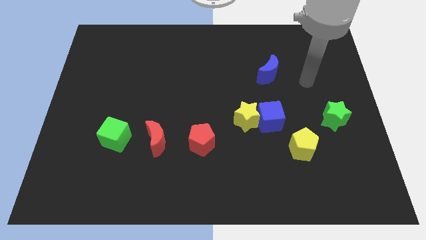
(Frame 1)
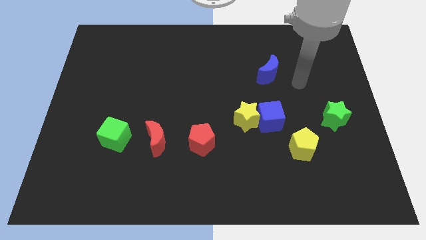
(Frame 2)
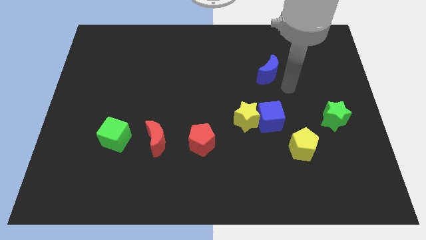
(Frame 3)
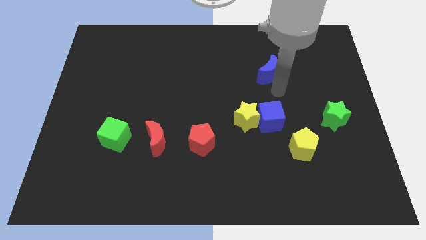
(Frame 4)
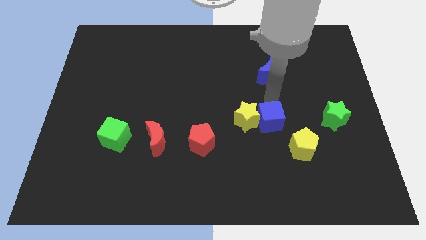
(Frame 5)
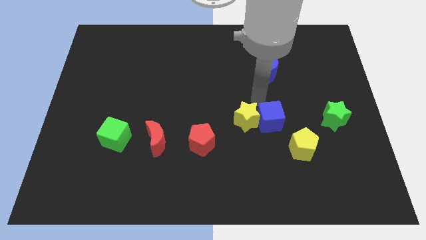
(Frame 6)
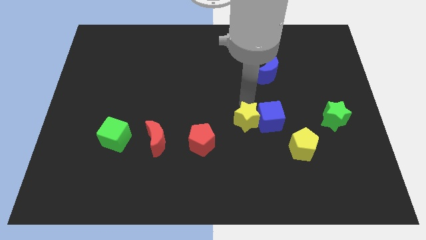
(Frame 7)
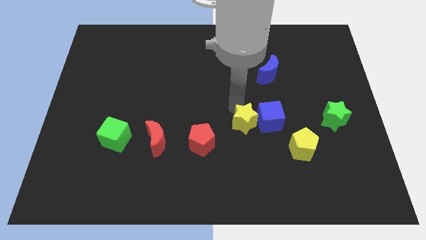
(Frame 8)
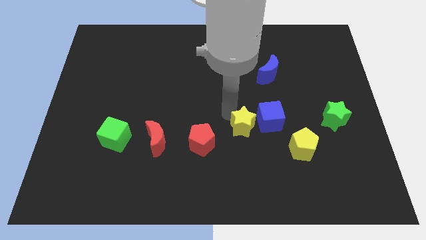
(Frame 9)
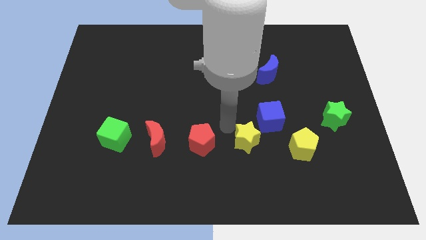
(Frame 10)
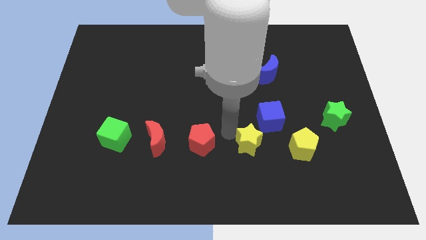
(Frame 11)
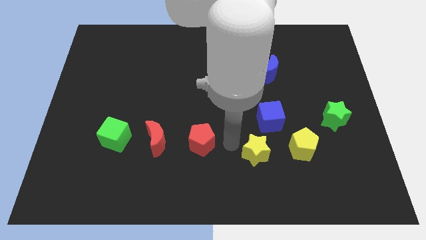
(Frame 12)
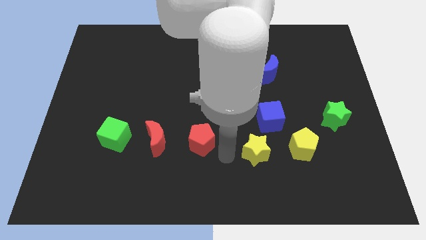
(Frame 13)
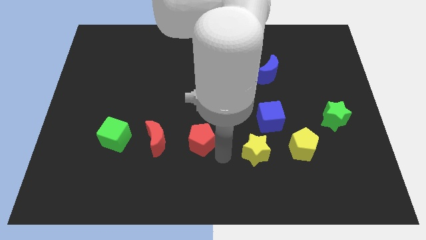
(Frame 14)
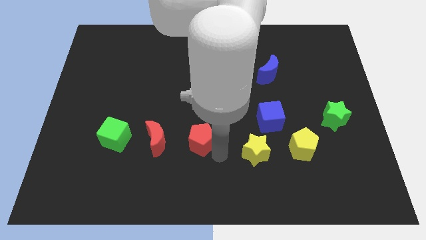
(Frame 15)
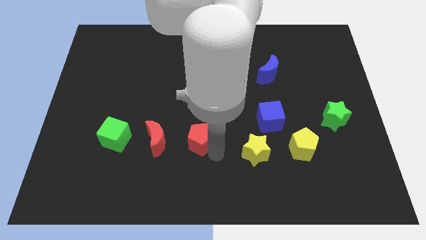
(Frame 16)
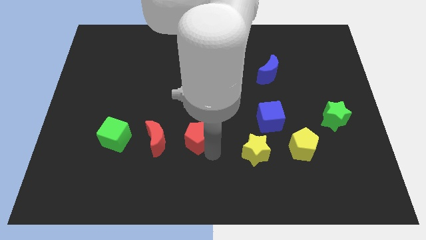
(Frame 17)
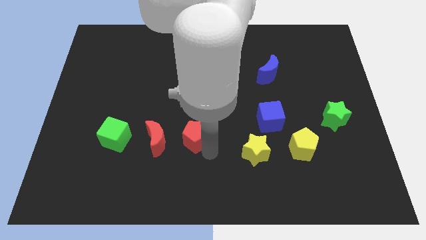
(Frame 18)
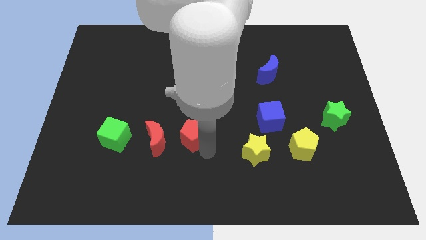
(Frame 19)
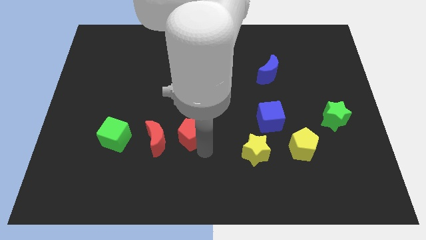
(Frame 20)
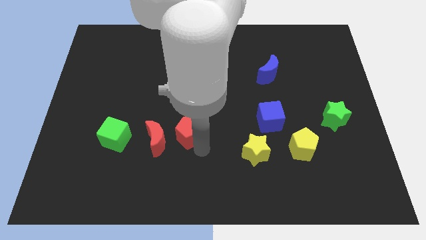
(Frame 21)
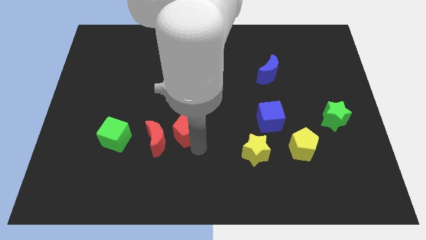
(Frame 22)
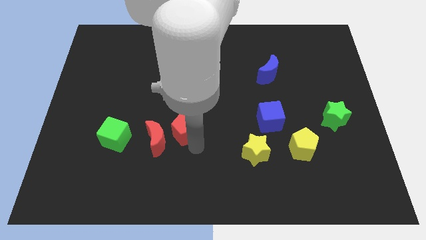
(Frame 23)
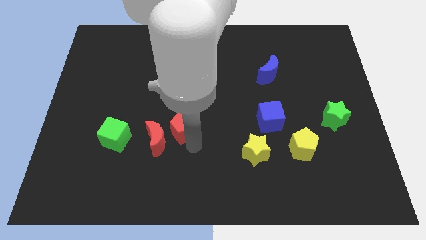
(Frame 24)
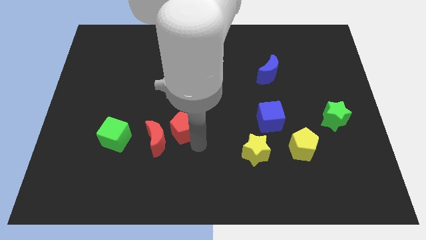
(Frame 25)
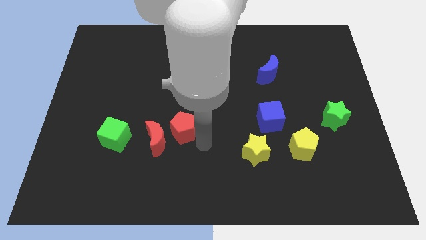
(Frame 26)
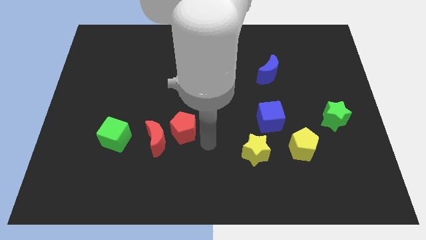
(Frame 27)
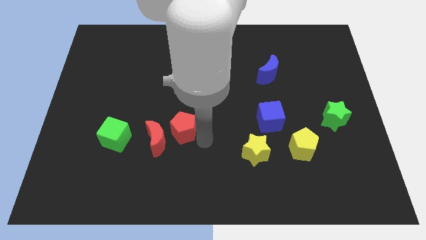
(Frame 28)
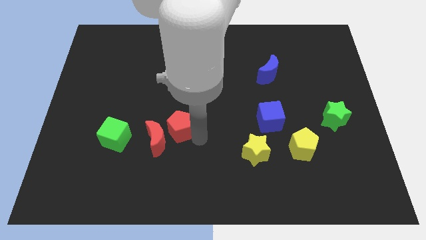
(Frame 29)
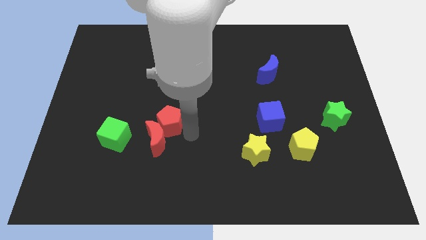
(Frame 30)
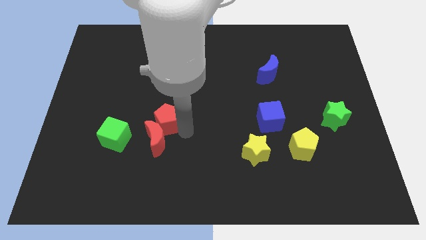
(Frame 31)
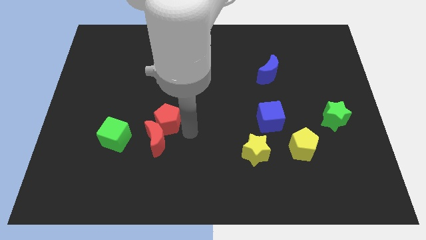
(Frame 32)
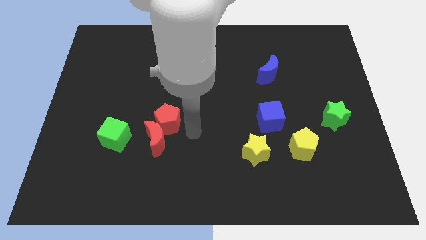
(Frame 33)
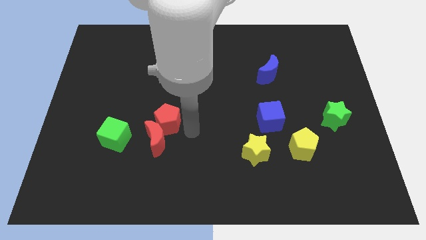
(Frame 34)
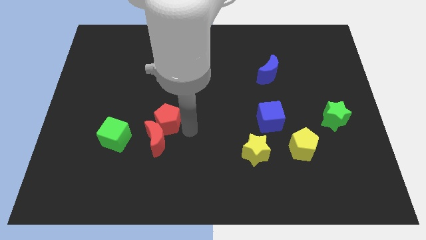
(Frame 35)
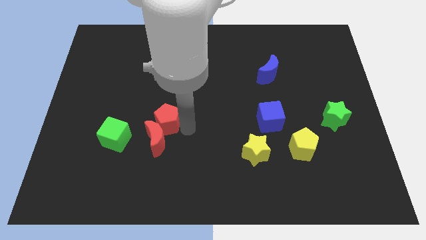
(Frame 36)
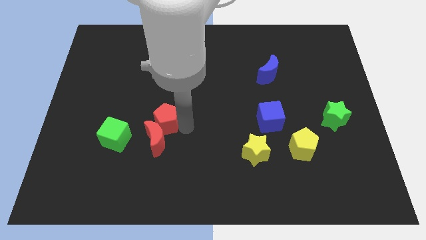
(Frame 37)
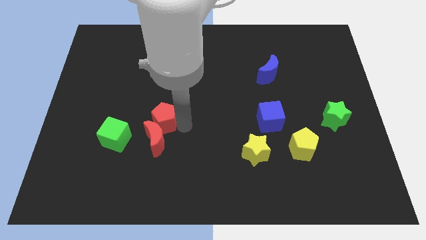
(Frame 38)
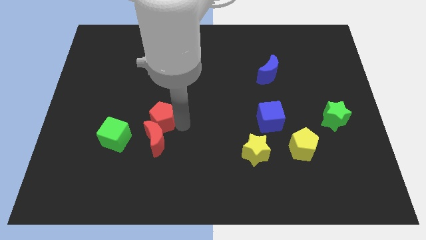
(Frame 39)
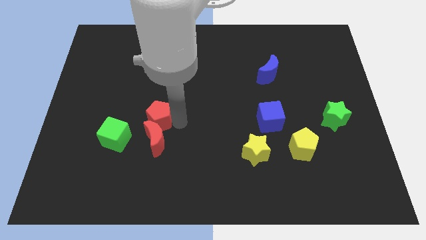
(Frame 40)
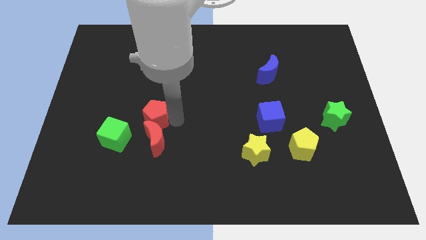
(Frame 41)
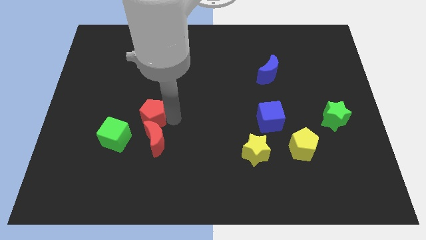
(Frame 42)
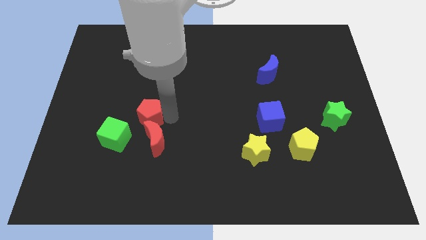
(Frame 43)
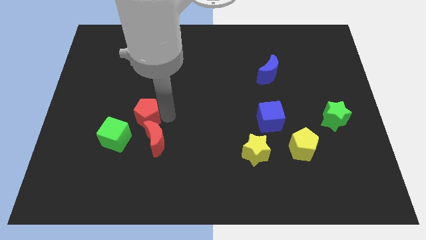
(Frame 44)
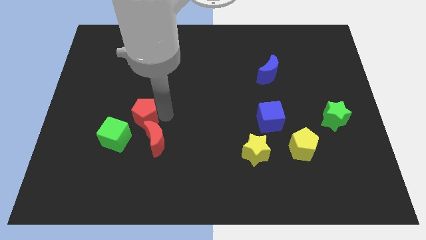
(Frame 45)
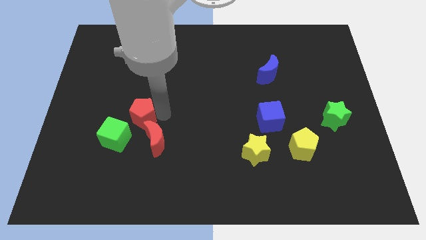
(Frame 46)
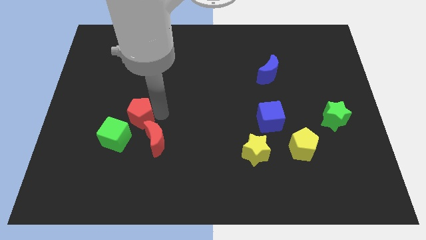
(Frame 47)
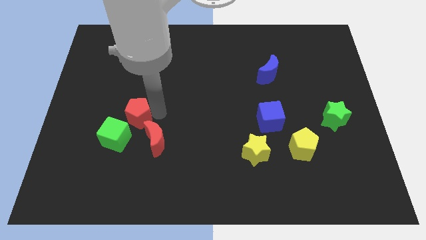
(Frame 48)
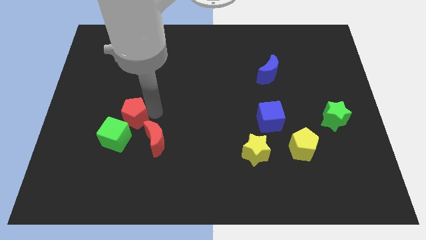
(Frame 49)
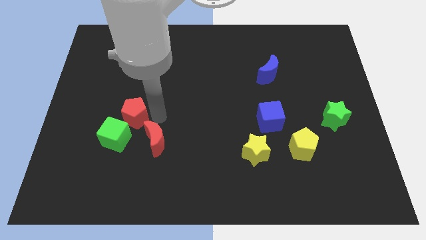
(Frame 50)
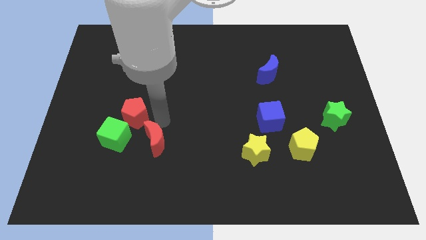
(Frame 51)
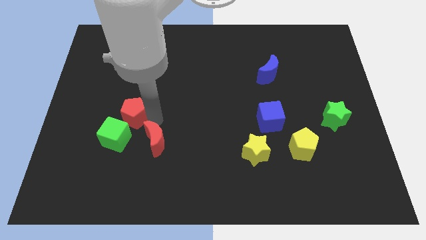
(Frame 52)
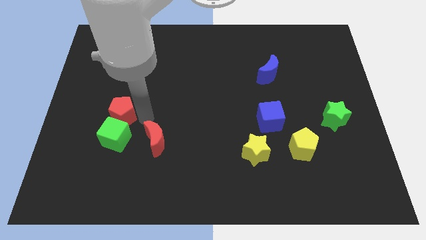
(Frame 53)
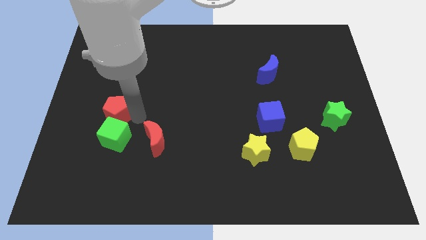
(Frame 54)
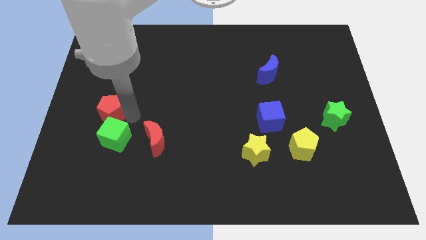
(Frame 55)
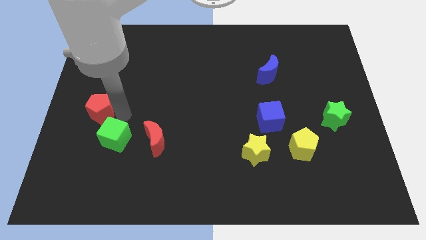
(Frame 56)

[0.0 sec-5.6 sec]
slide the red pentagon to the left side of the board

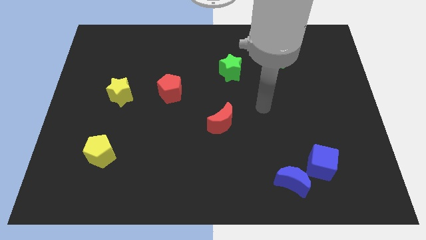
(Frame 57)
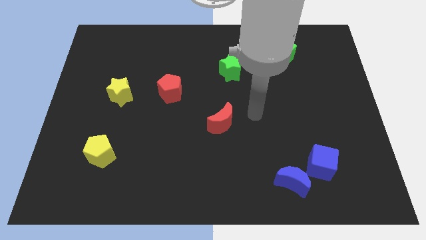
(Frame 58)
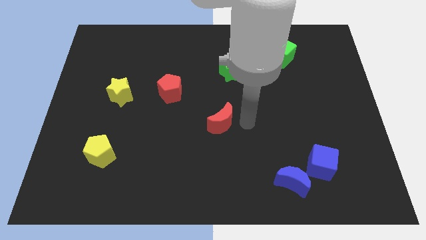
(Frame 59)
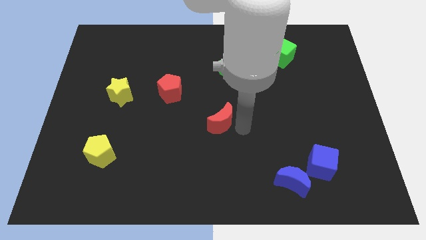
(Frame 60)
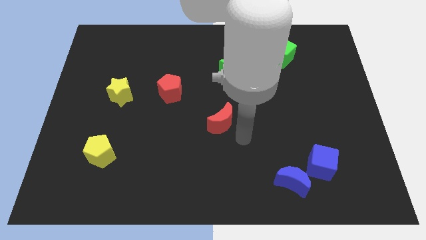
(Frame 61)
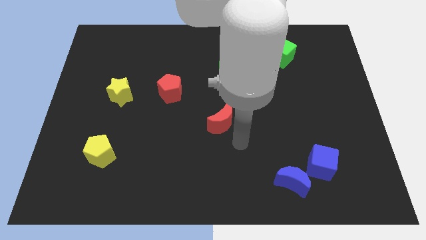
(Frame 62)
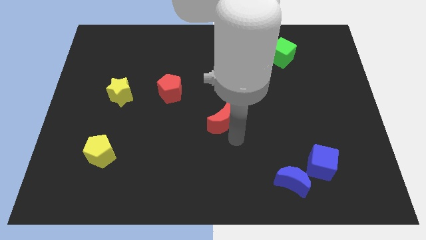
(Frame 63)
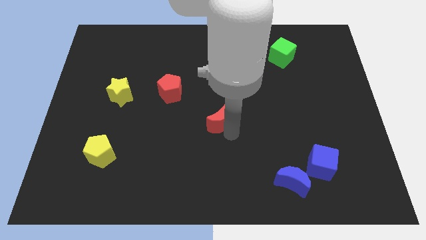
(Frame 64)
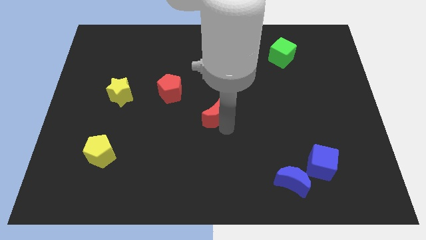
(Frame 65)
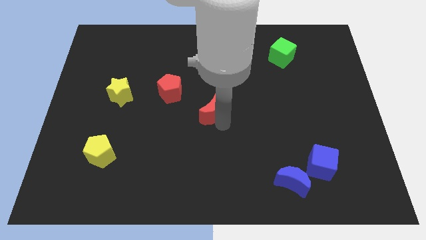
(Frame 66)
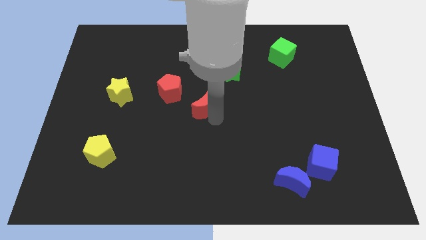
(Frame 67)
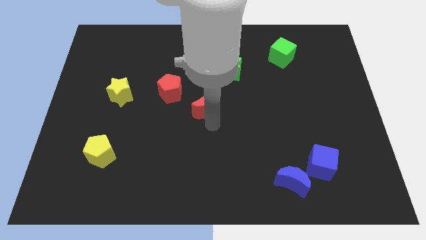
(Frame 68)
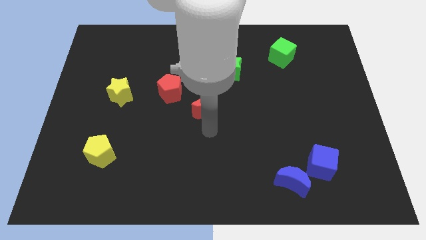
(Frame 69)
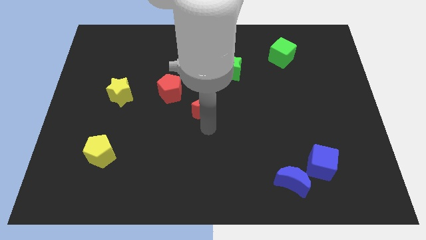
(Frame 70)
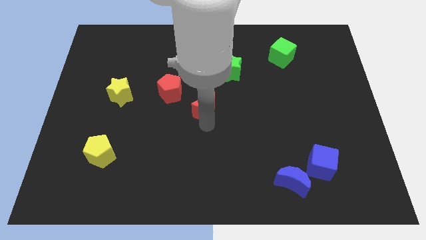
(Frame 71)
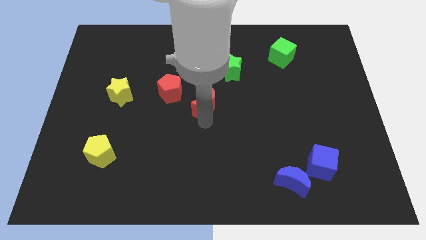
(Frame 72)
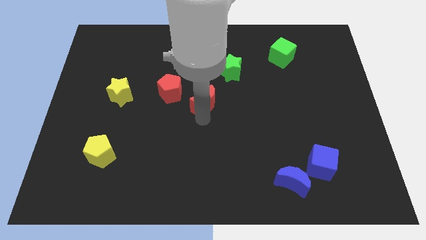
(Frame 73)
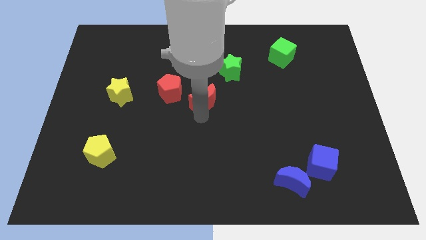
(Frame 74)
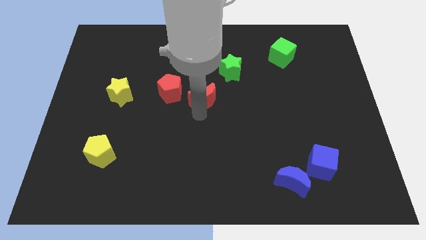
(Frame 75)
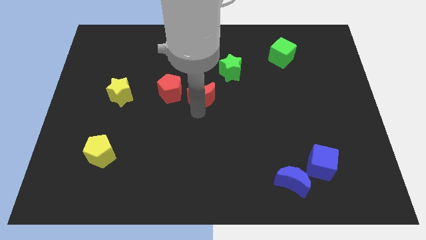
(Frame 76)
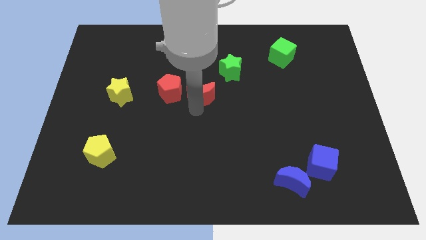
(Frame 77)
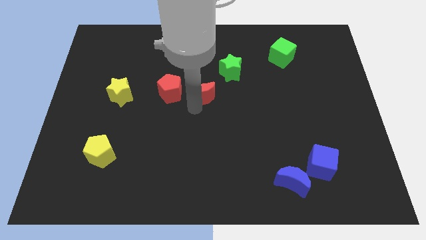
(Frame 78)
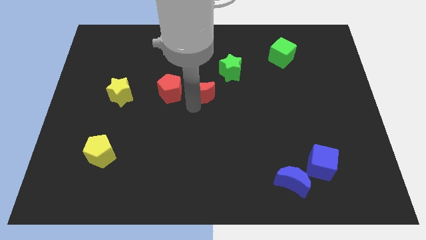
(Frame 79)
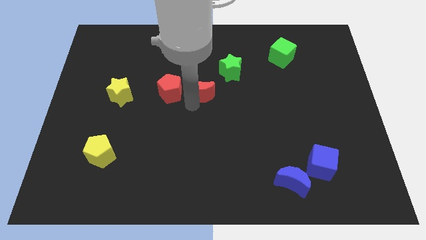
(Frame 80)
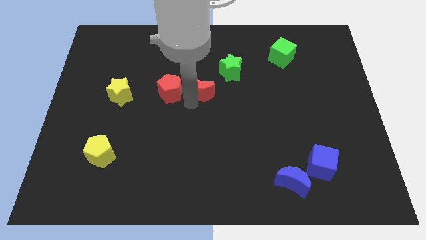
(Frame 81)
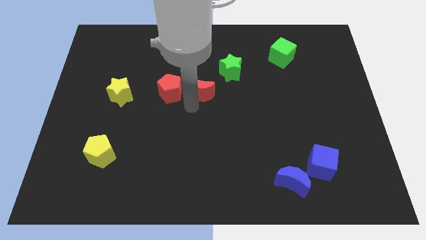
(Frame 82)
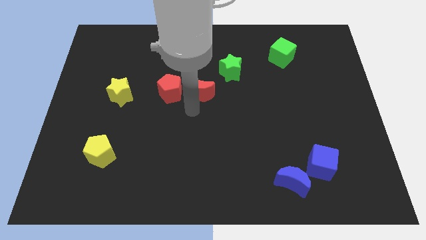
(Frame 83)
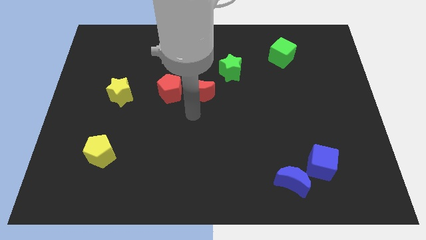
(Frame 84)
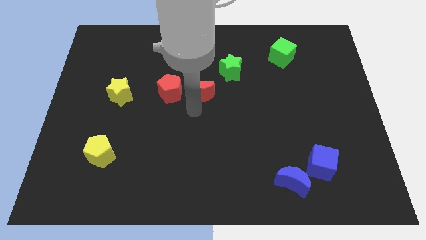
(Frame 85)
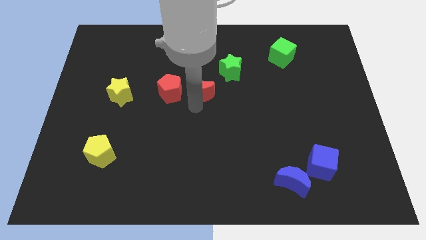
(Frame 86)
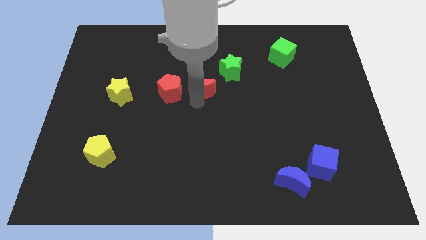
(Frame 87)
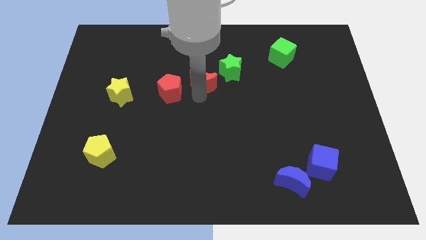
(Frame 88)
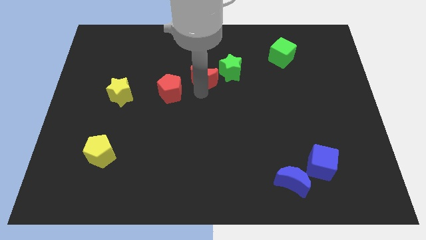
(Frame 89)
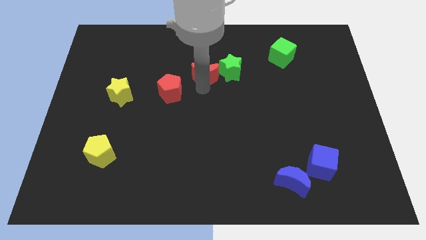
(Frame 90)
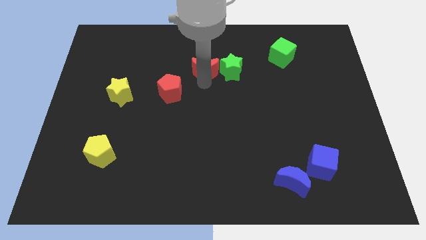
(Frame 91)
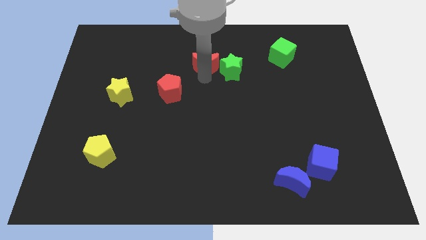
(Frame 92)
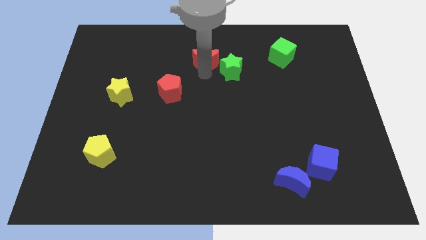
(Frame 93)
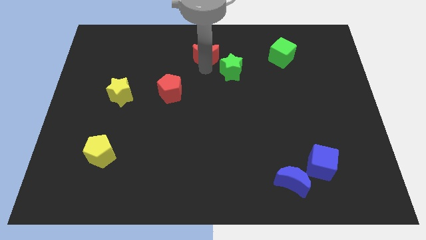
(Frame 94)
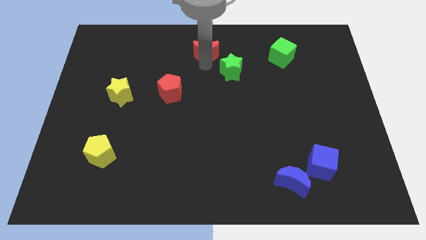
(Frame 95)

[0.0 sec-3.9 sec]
move the red moon to the top
